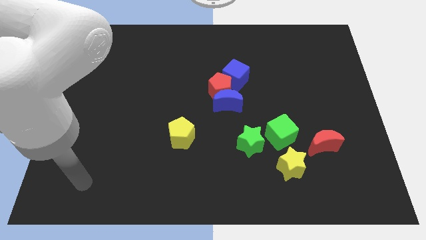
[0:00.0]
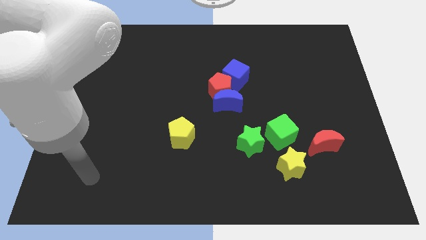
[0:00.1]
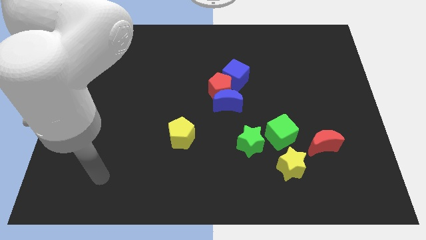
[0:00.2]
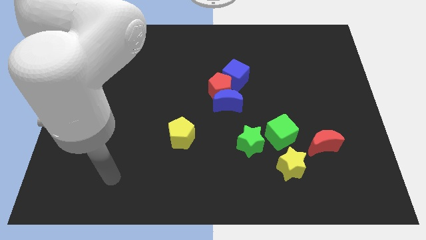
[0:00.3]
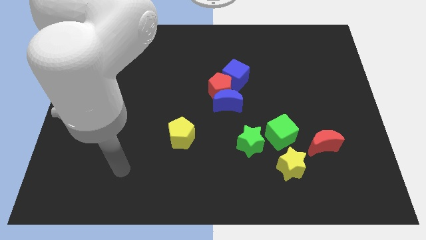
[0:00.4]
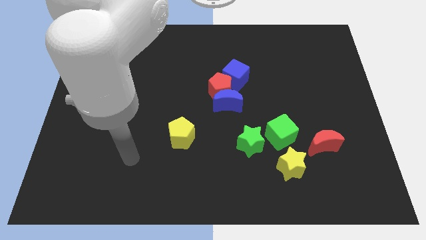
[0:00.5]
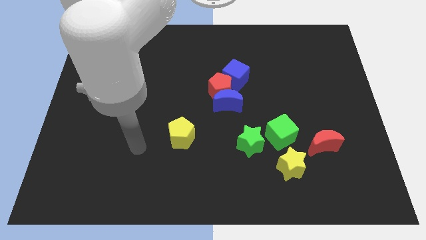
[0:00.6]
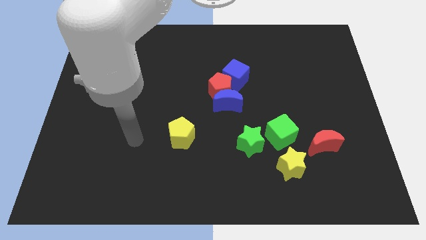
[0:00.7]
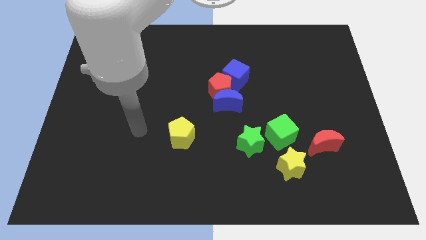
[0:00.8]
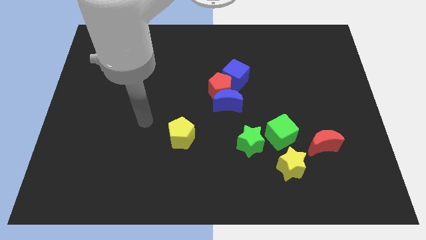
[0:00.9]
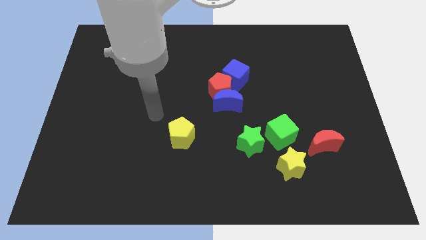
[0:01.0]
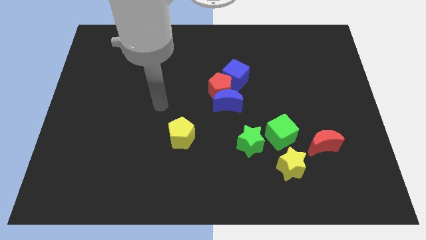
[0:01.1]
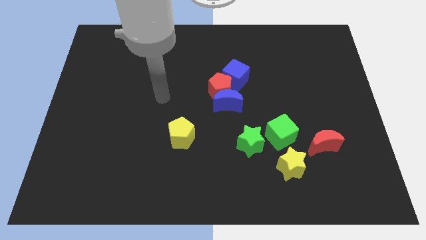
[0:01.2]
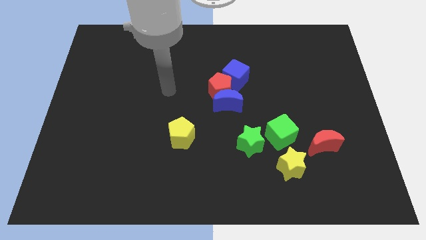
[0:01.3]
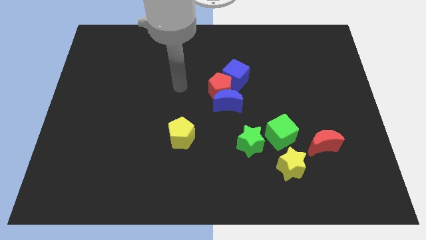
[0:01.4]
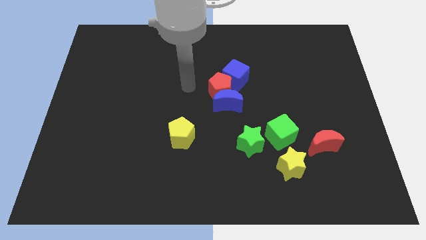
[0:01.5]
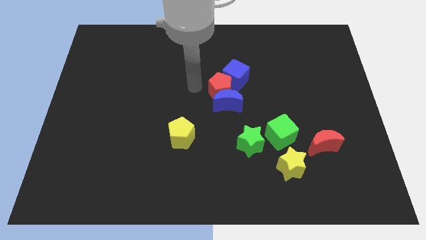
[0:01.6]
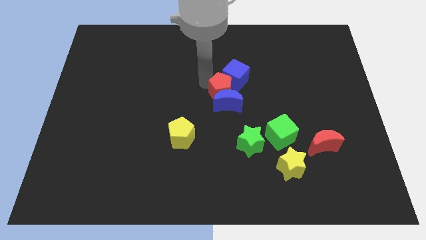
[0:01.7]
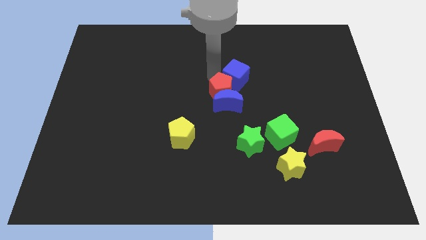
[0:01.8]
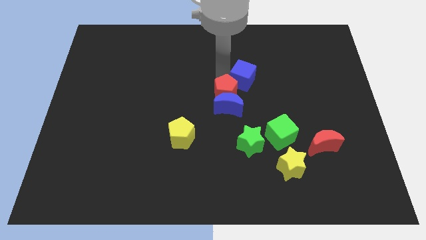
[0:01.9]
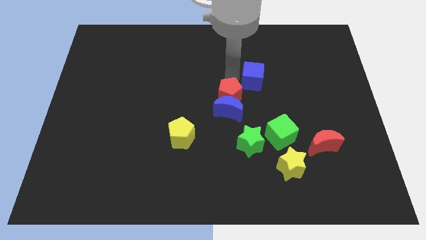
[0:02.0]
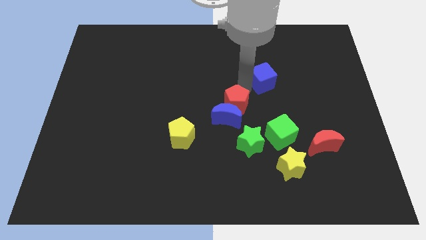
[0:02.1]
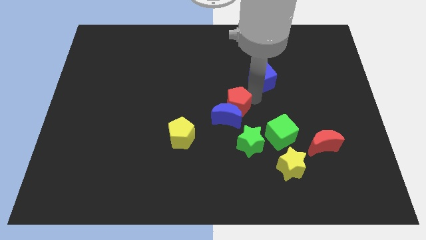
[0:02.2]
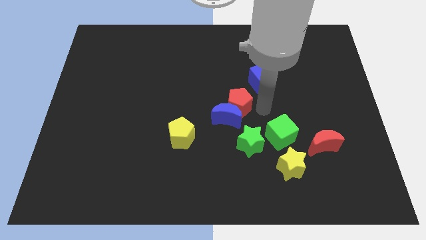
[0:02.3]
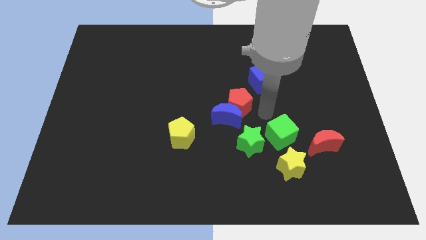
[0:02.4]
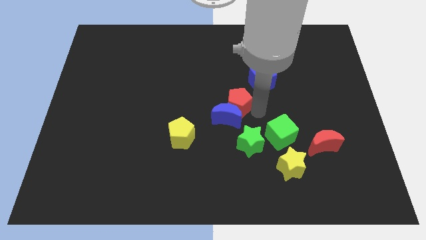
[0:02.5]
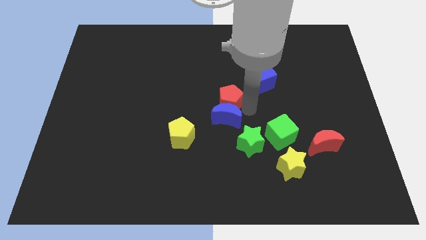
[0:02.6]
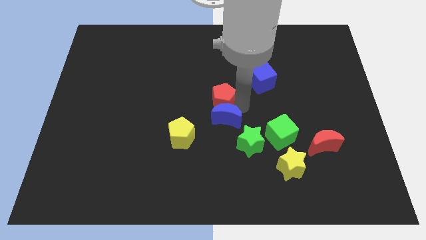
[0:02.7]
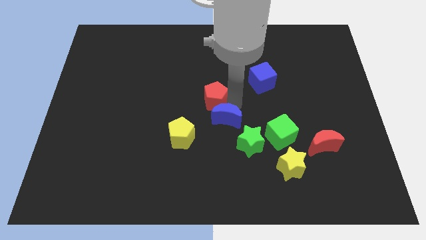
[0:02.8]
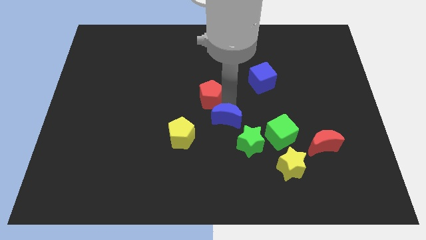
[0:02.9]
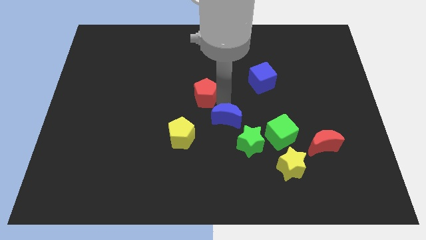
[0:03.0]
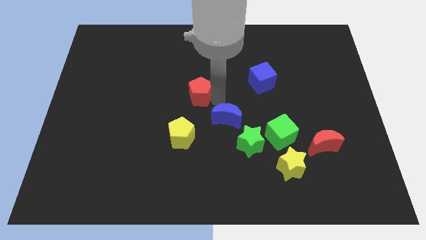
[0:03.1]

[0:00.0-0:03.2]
move the red pentagon away from the blue moon and blue cube

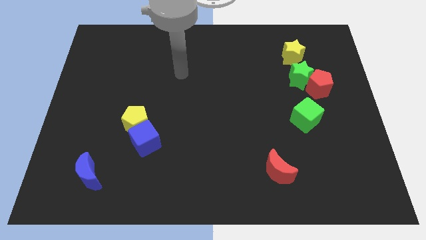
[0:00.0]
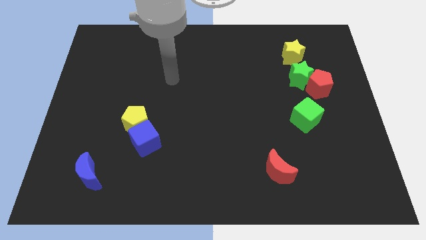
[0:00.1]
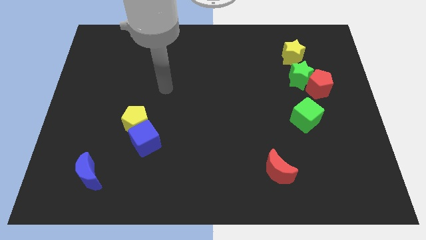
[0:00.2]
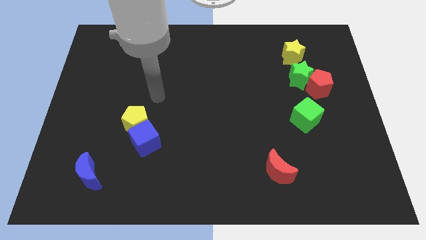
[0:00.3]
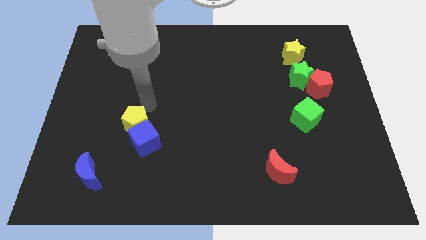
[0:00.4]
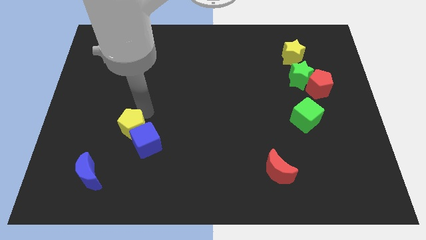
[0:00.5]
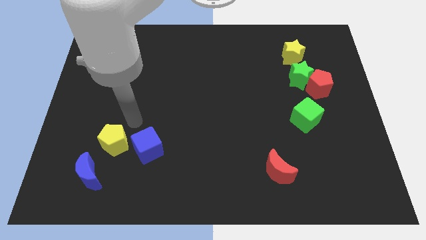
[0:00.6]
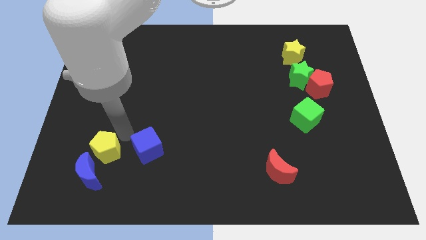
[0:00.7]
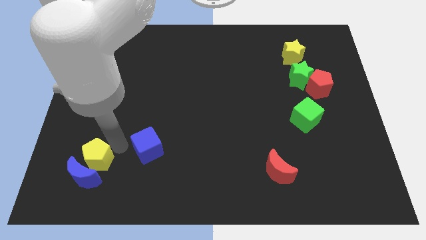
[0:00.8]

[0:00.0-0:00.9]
separate the blue cube from the yellow pentagon

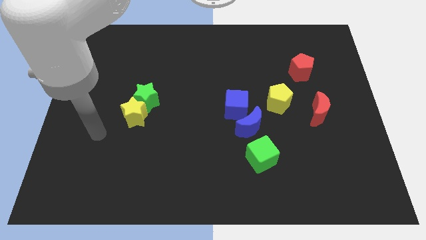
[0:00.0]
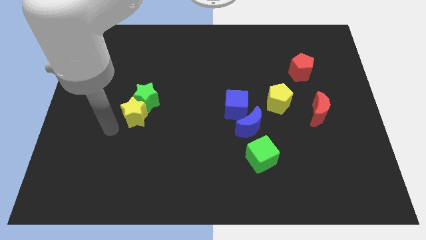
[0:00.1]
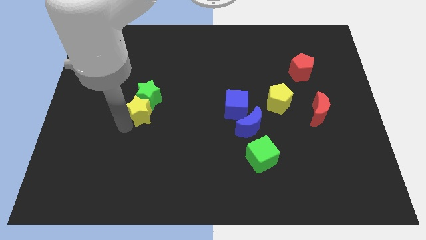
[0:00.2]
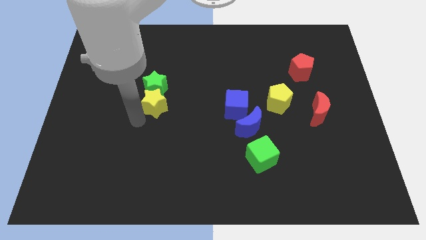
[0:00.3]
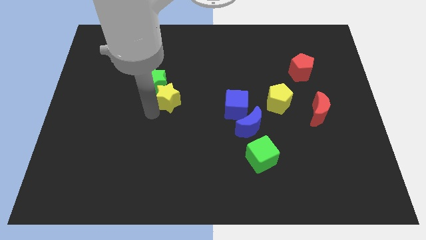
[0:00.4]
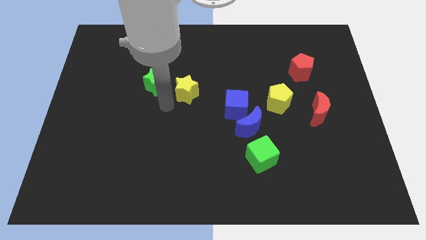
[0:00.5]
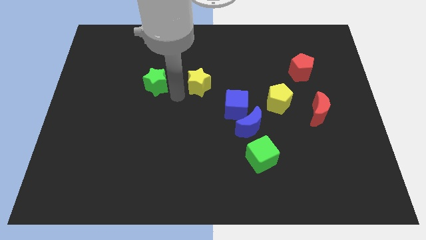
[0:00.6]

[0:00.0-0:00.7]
move the green star away from the yellow star

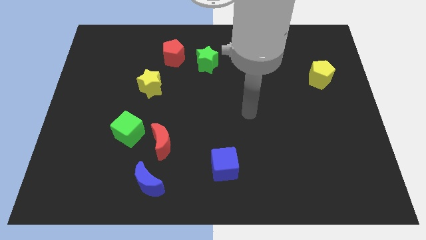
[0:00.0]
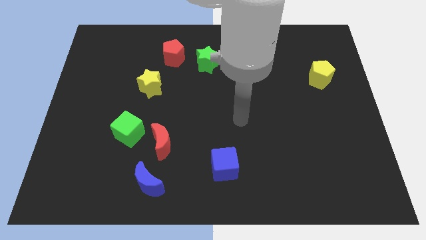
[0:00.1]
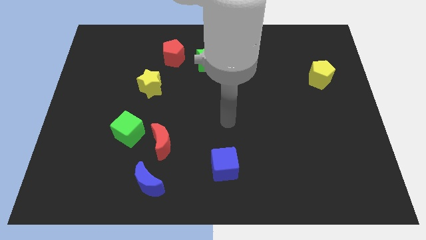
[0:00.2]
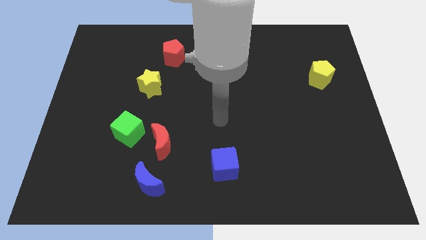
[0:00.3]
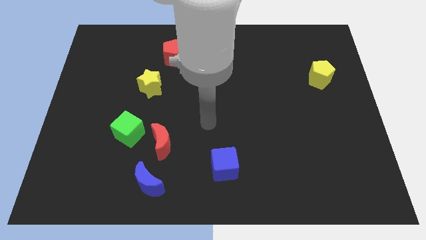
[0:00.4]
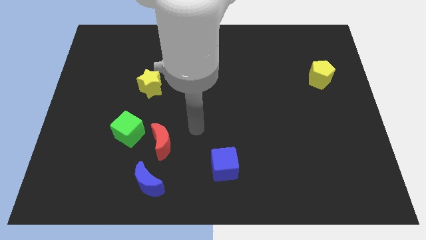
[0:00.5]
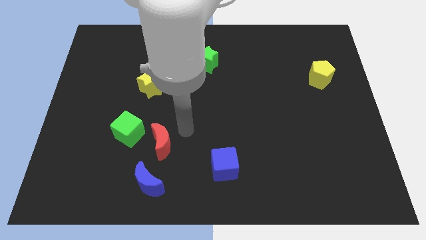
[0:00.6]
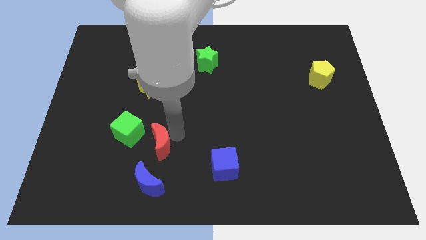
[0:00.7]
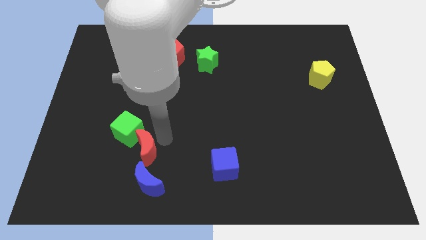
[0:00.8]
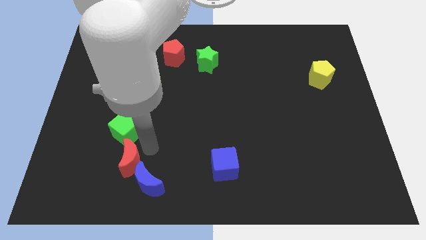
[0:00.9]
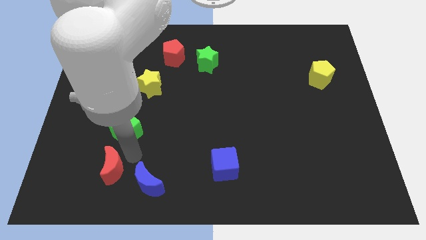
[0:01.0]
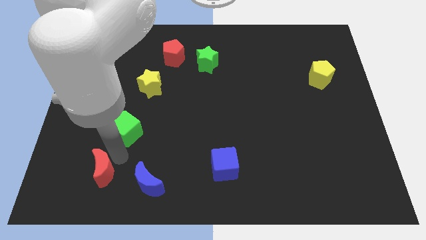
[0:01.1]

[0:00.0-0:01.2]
separate the green cube from the red moon

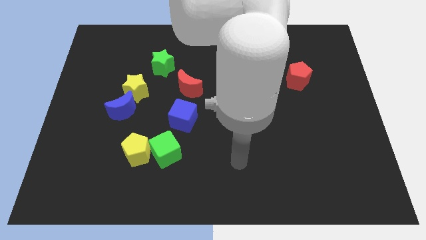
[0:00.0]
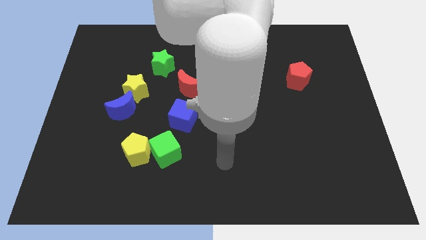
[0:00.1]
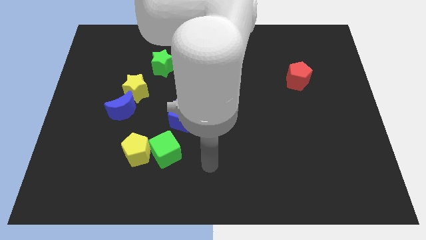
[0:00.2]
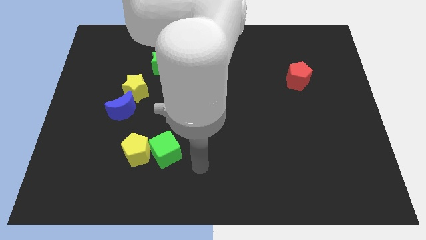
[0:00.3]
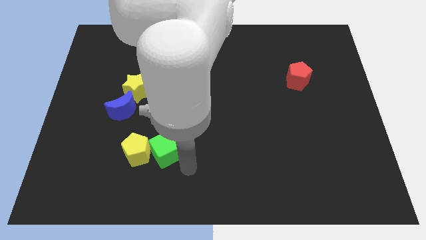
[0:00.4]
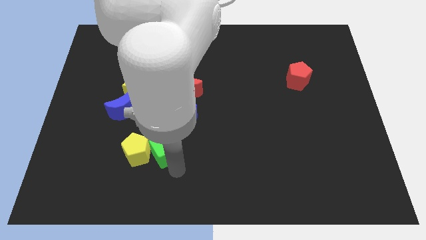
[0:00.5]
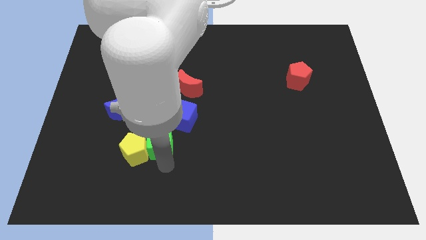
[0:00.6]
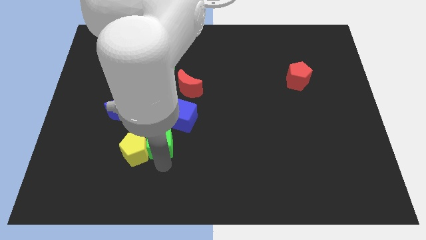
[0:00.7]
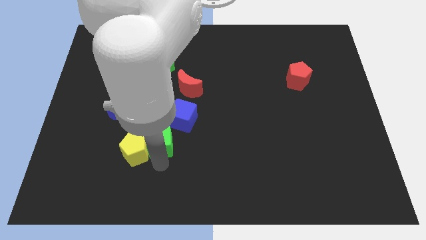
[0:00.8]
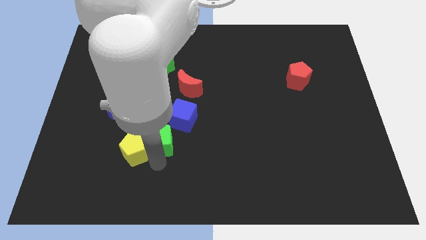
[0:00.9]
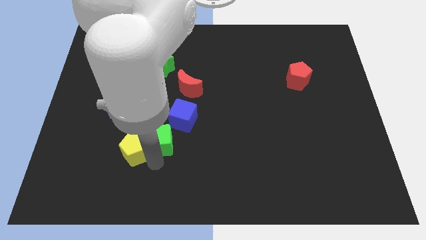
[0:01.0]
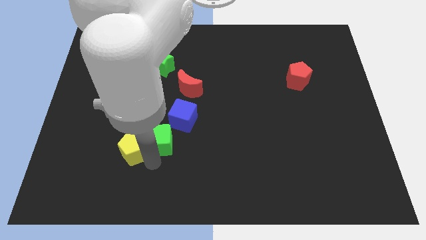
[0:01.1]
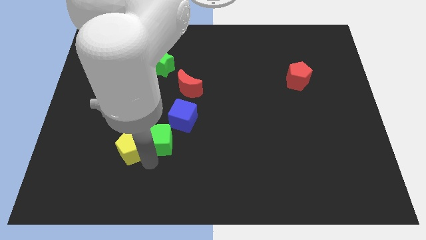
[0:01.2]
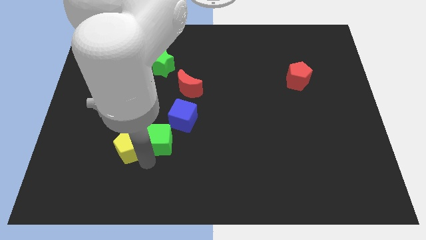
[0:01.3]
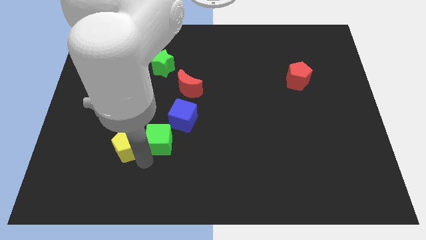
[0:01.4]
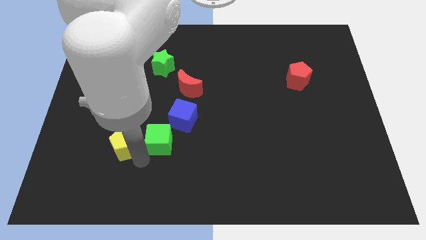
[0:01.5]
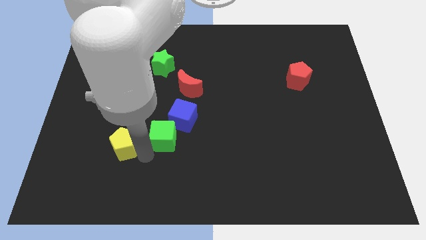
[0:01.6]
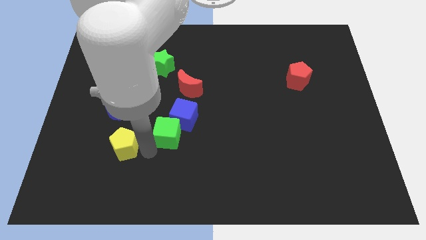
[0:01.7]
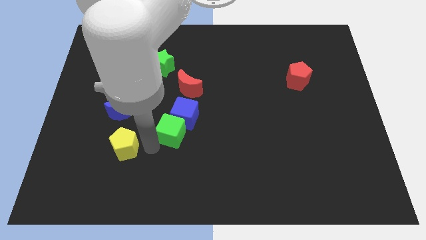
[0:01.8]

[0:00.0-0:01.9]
pull the yellow pentagon apart from the green cube

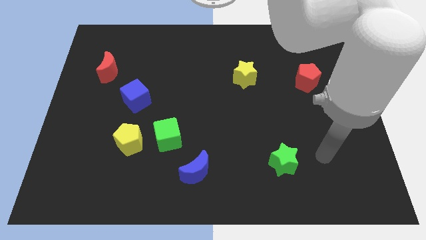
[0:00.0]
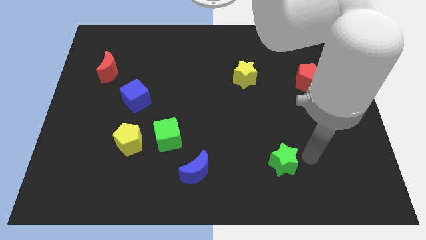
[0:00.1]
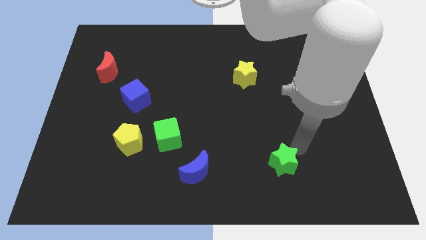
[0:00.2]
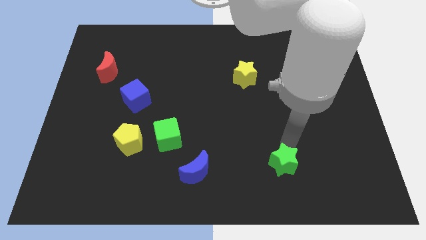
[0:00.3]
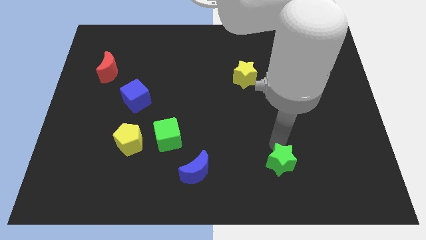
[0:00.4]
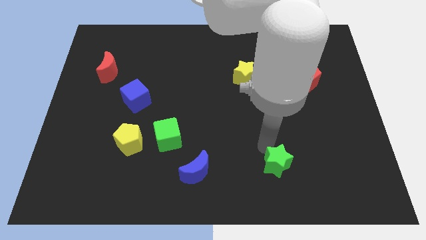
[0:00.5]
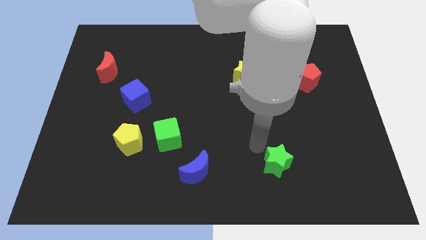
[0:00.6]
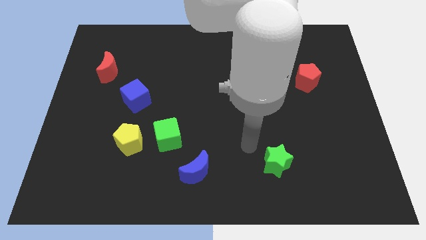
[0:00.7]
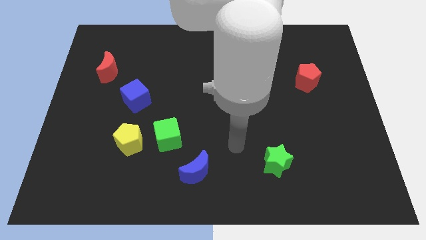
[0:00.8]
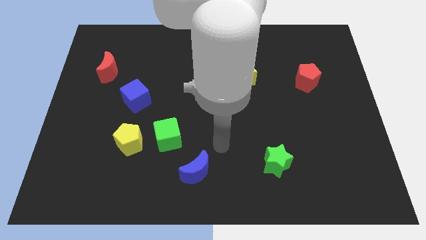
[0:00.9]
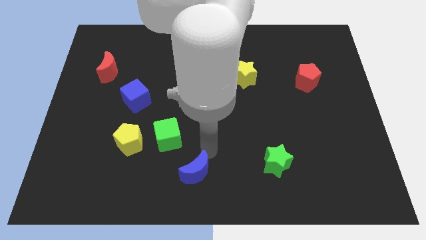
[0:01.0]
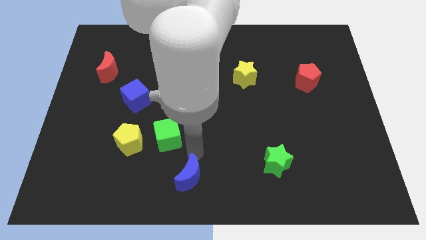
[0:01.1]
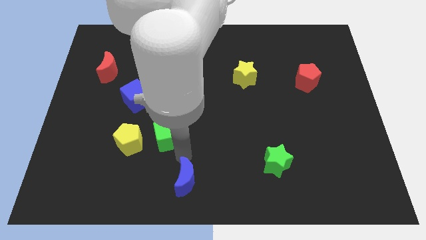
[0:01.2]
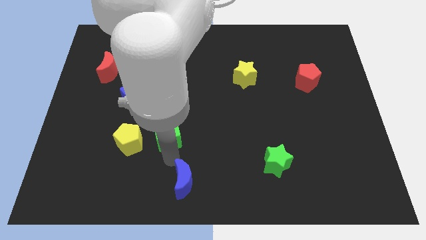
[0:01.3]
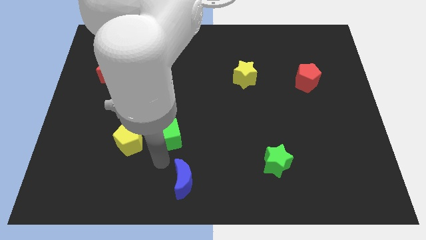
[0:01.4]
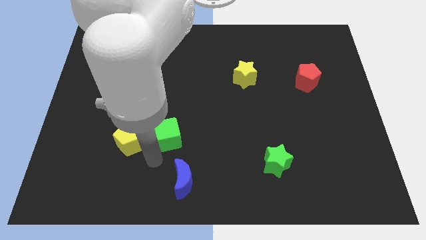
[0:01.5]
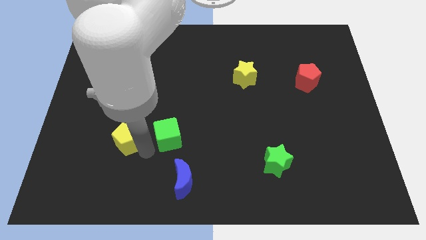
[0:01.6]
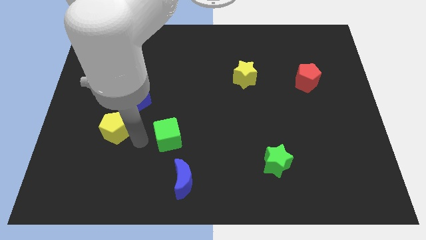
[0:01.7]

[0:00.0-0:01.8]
separate the green cube from the yellow pentagon
